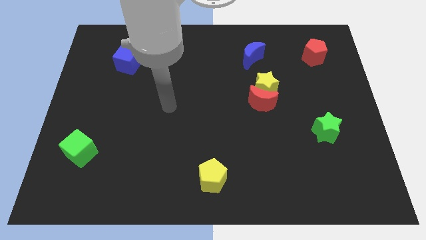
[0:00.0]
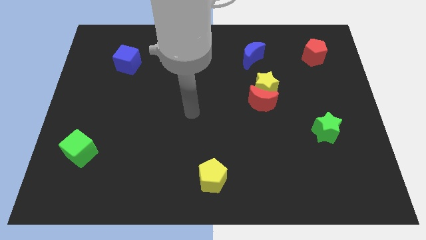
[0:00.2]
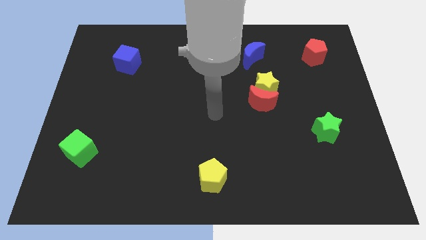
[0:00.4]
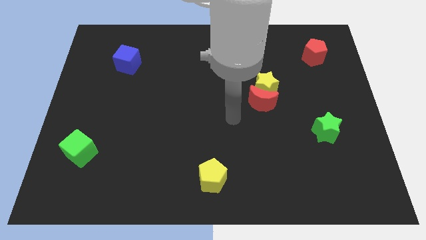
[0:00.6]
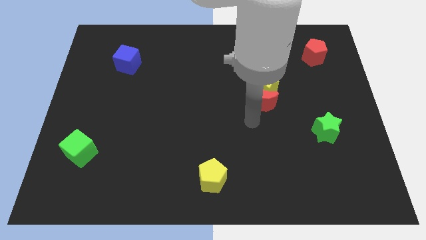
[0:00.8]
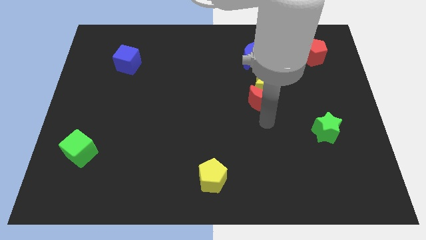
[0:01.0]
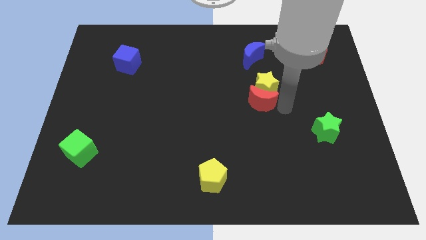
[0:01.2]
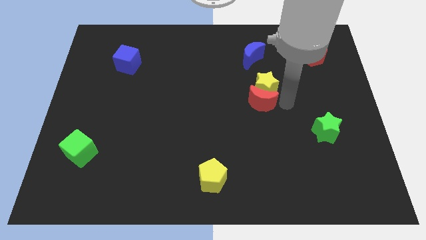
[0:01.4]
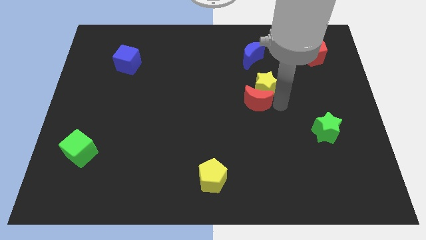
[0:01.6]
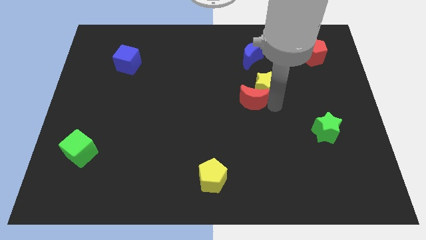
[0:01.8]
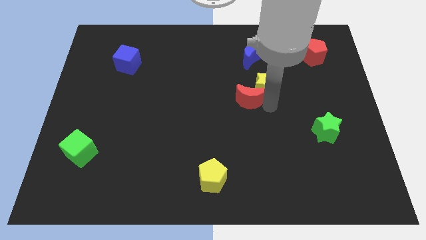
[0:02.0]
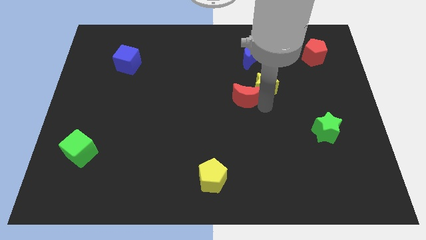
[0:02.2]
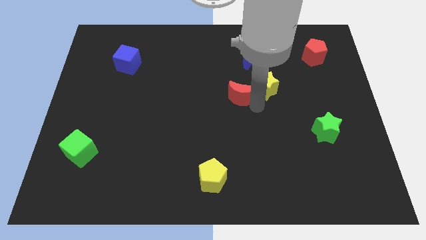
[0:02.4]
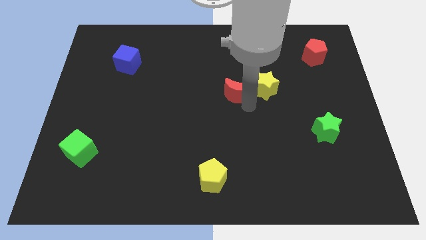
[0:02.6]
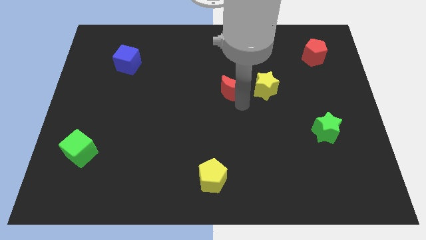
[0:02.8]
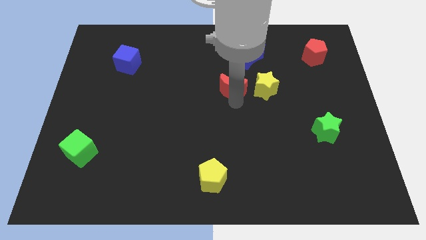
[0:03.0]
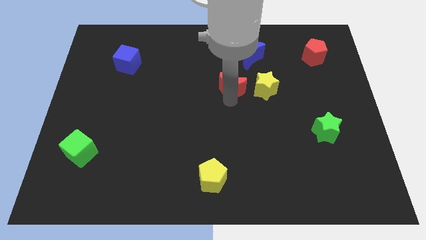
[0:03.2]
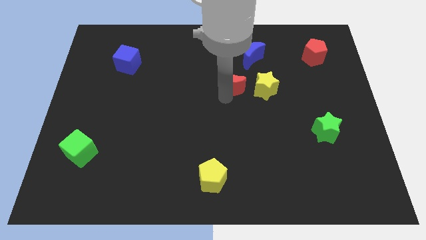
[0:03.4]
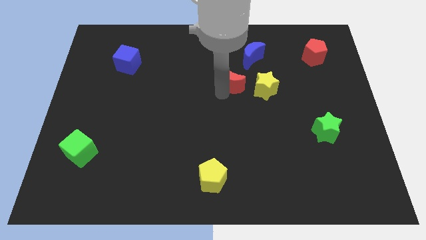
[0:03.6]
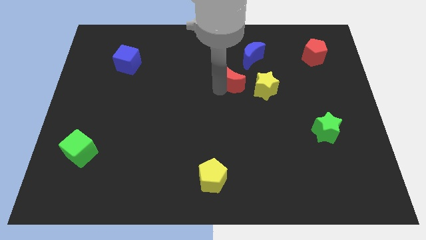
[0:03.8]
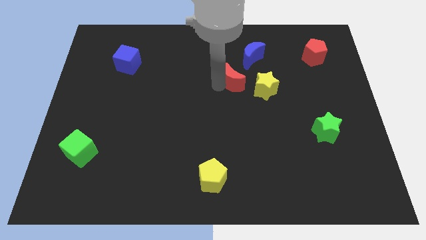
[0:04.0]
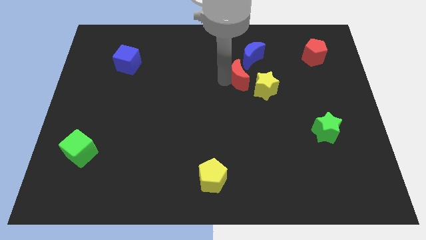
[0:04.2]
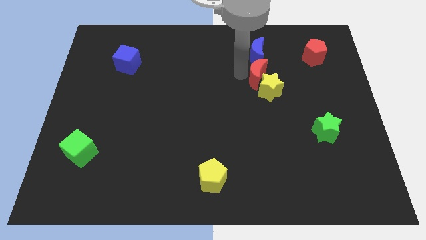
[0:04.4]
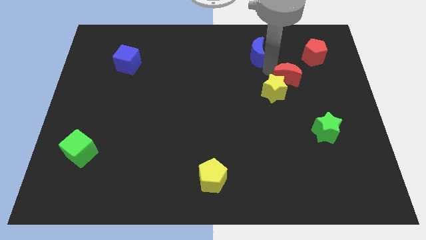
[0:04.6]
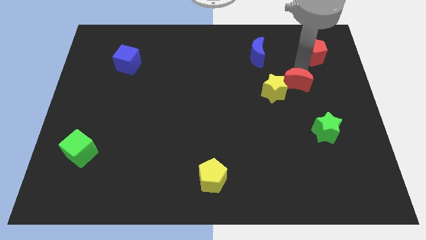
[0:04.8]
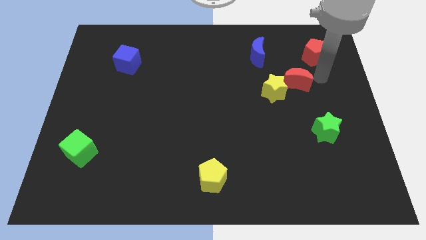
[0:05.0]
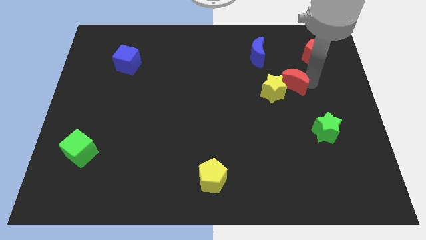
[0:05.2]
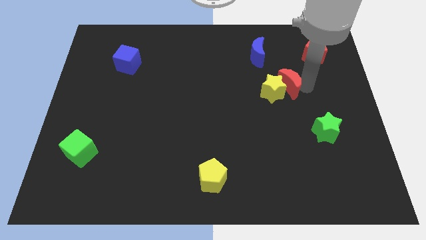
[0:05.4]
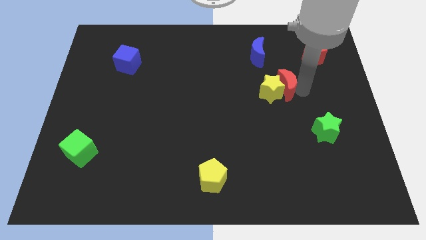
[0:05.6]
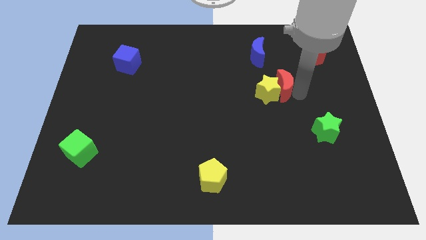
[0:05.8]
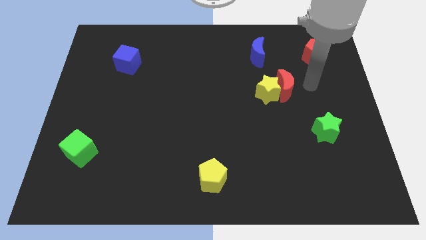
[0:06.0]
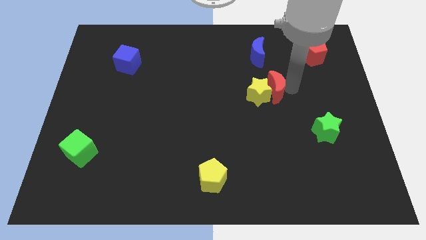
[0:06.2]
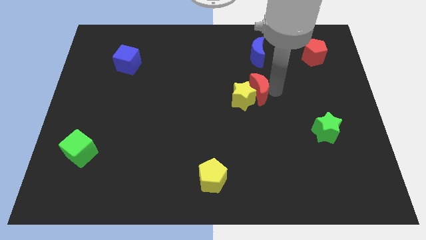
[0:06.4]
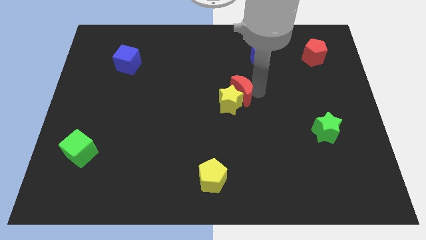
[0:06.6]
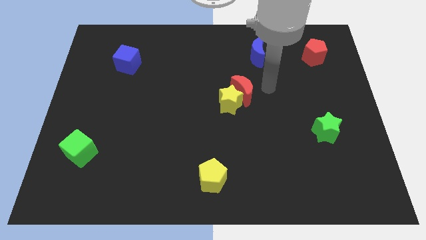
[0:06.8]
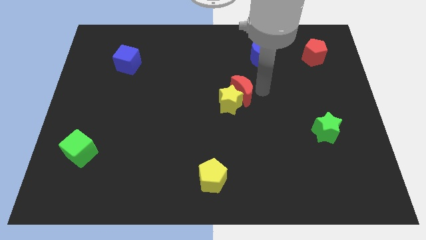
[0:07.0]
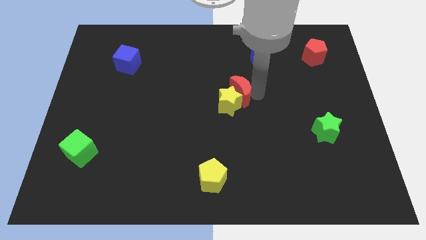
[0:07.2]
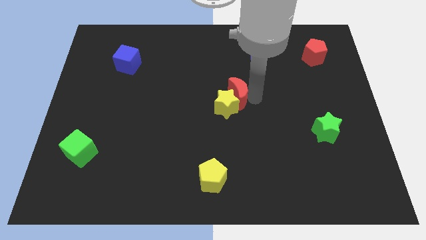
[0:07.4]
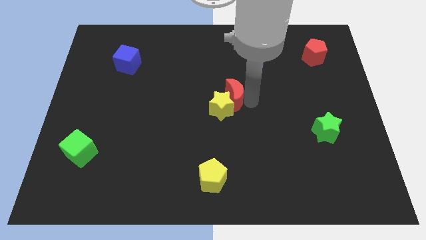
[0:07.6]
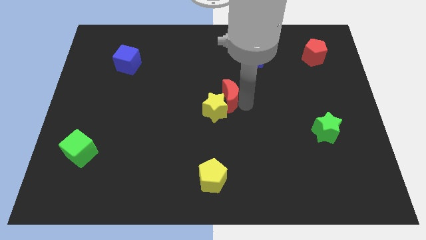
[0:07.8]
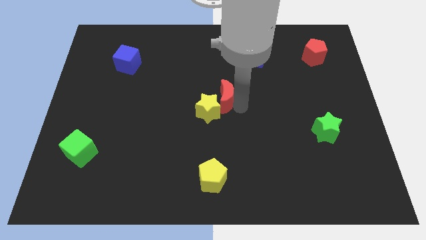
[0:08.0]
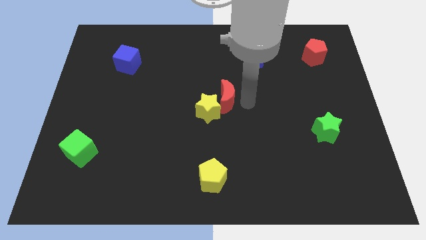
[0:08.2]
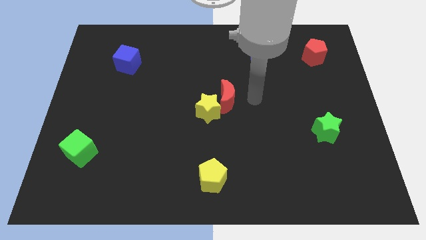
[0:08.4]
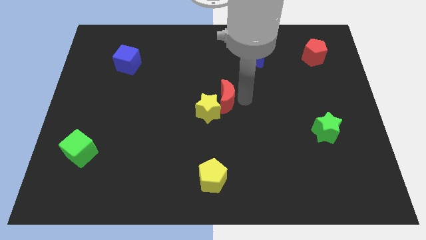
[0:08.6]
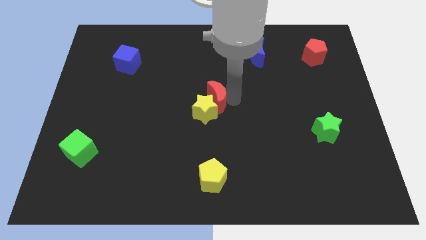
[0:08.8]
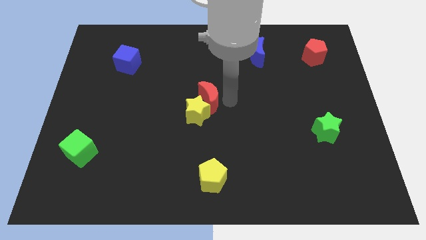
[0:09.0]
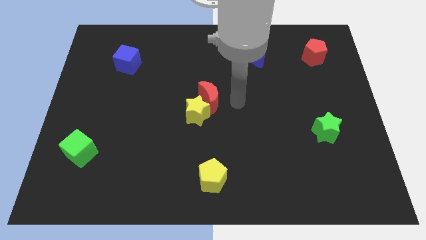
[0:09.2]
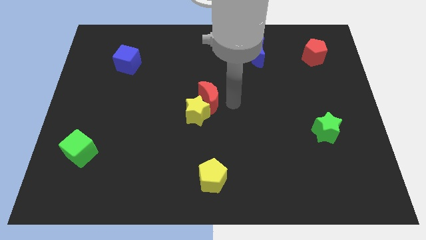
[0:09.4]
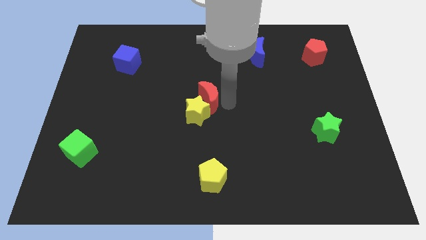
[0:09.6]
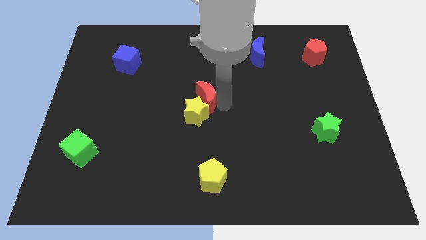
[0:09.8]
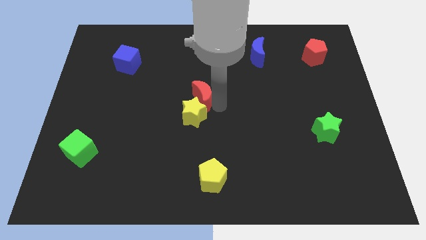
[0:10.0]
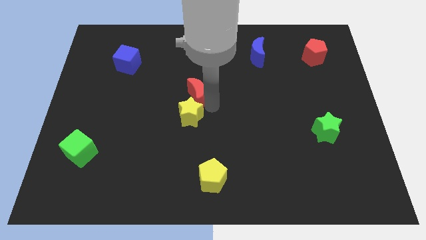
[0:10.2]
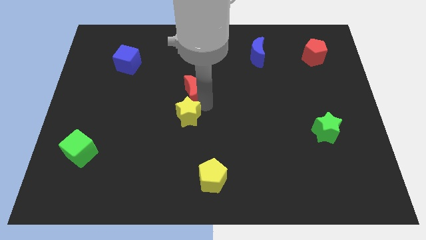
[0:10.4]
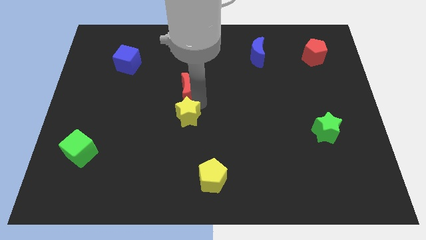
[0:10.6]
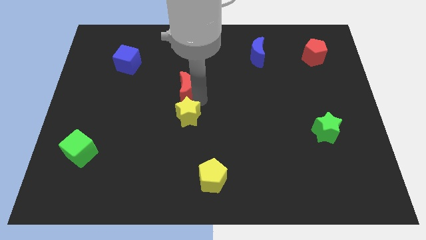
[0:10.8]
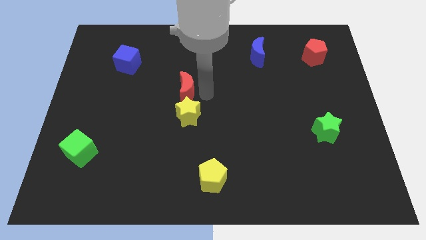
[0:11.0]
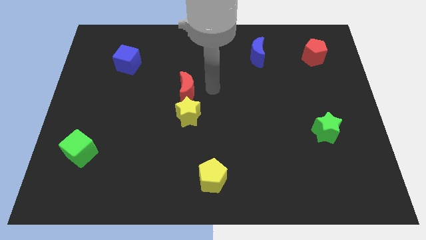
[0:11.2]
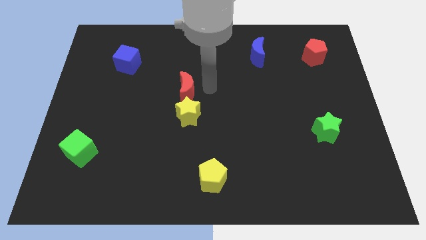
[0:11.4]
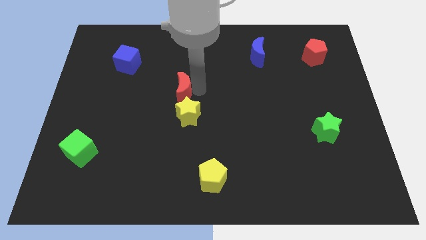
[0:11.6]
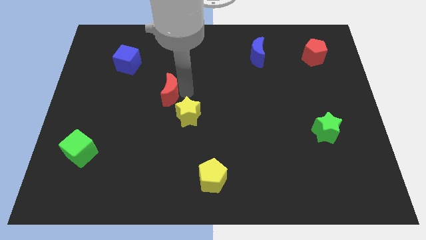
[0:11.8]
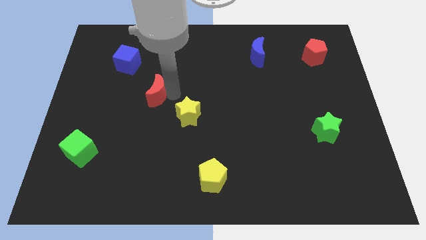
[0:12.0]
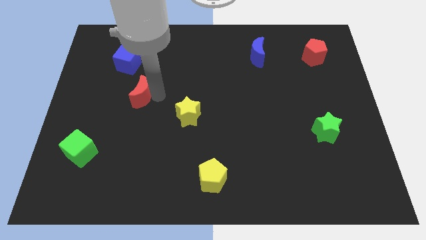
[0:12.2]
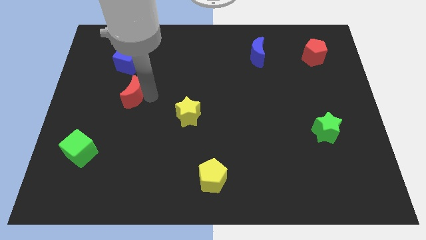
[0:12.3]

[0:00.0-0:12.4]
put the red moon to the bottom of the blue cube

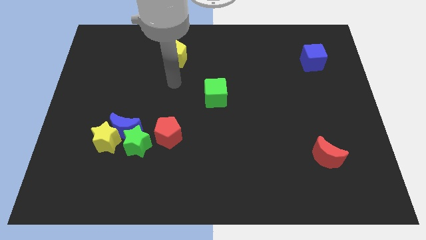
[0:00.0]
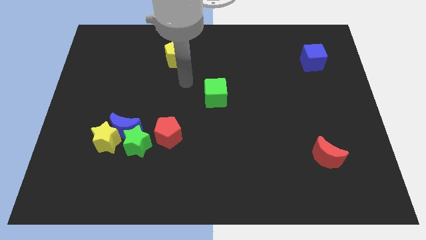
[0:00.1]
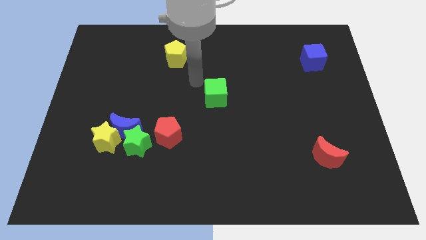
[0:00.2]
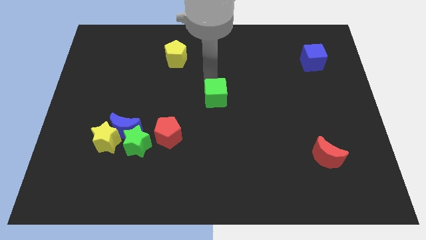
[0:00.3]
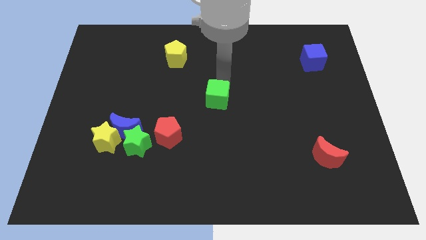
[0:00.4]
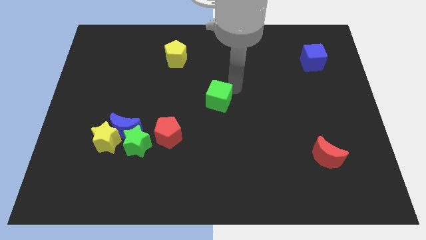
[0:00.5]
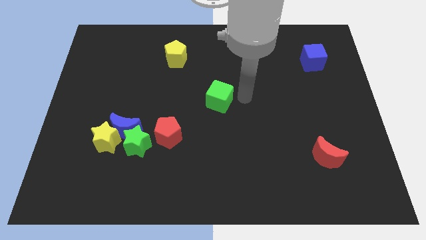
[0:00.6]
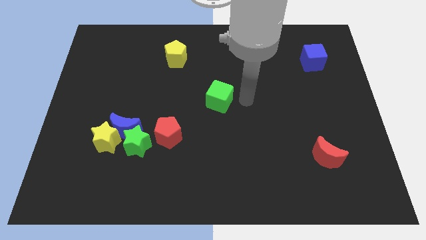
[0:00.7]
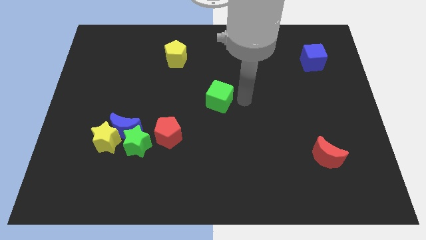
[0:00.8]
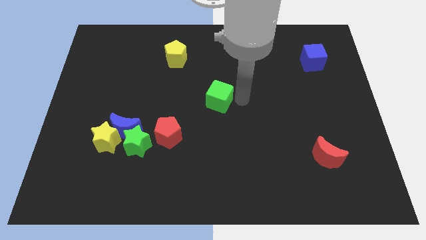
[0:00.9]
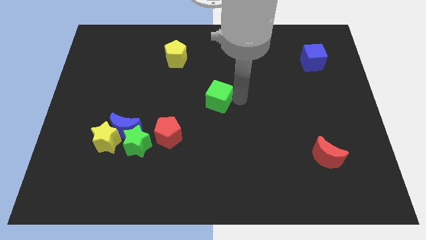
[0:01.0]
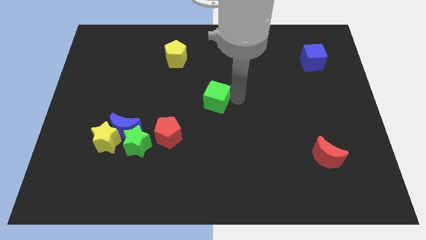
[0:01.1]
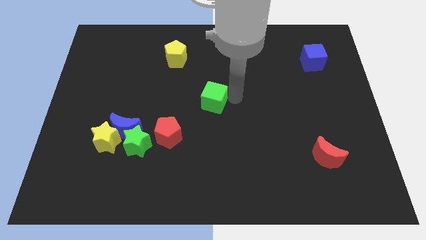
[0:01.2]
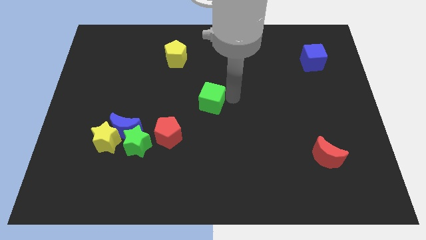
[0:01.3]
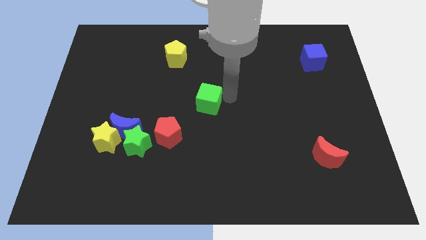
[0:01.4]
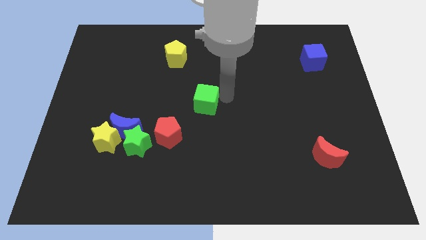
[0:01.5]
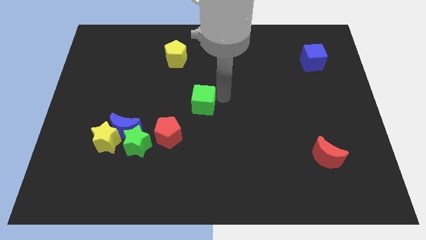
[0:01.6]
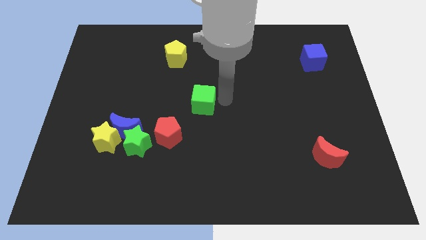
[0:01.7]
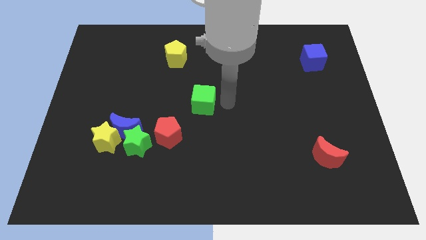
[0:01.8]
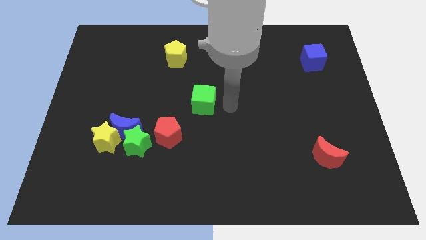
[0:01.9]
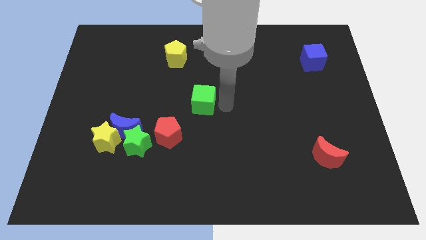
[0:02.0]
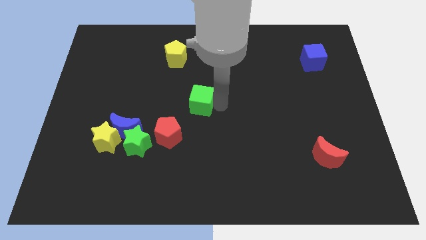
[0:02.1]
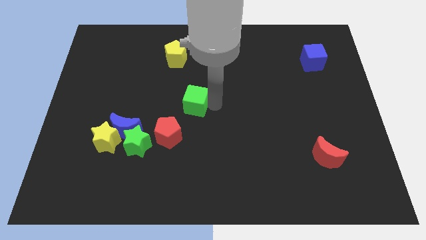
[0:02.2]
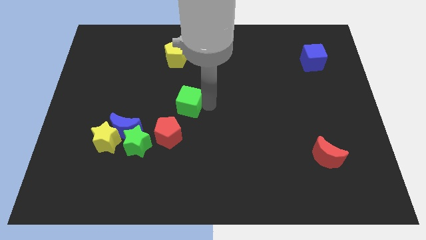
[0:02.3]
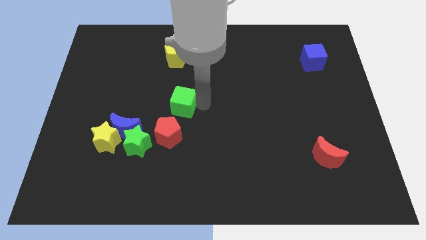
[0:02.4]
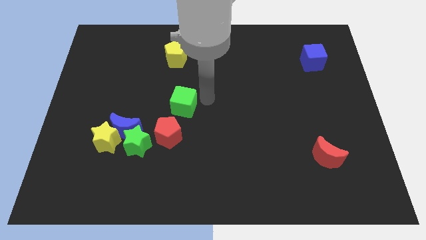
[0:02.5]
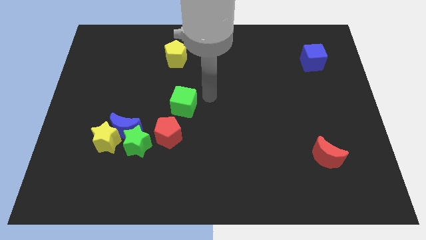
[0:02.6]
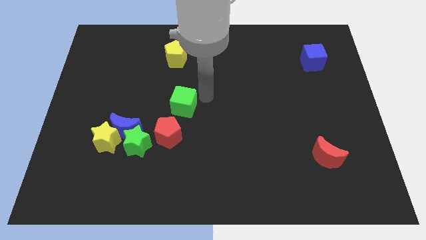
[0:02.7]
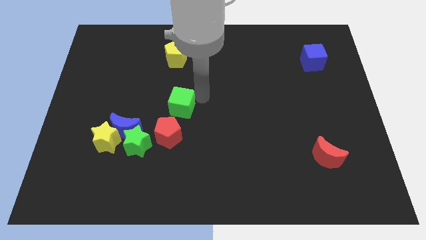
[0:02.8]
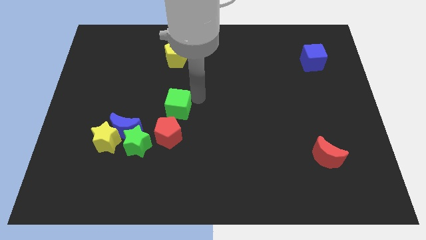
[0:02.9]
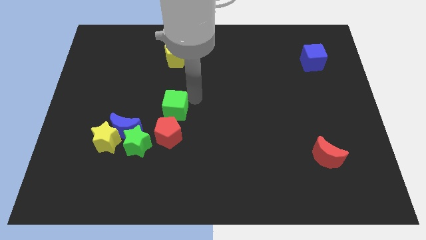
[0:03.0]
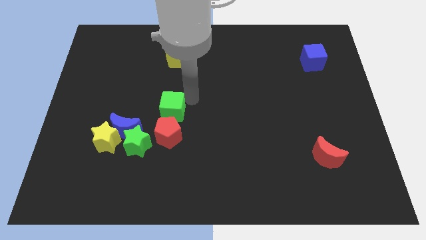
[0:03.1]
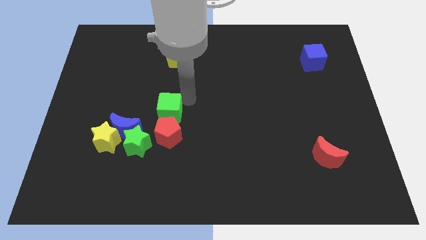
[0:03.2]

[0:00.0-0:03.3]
put the green cube to the top left of the red pentagon
